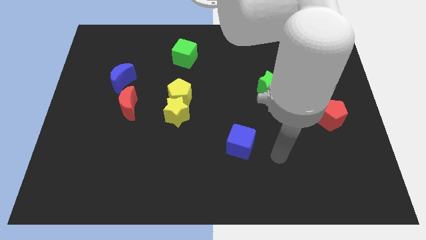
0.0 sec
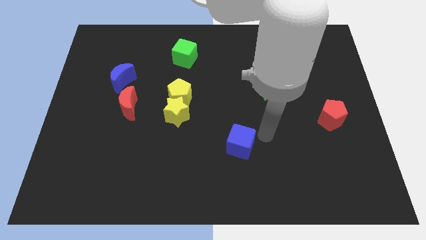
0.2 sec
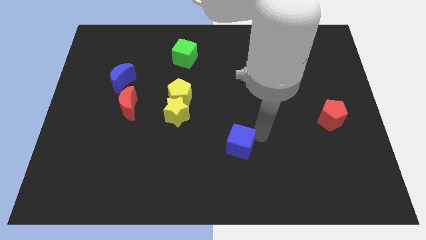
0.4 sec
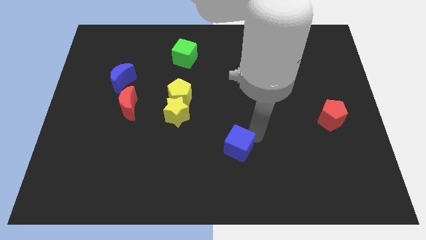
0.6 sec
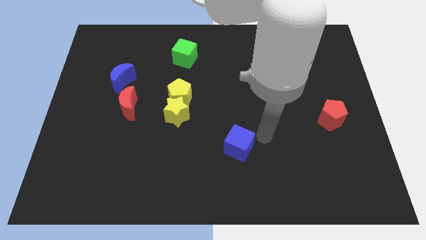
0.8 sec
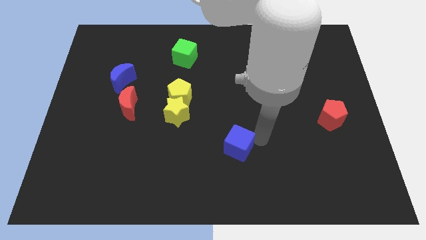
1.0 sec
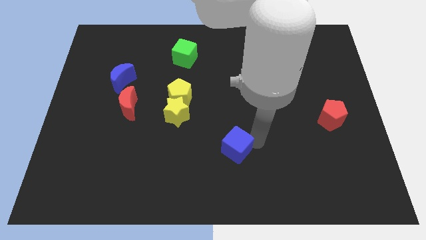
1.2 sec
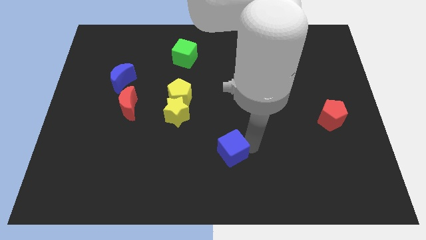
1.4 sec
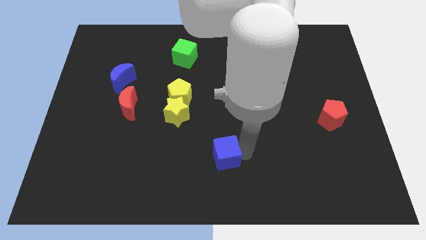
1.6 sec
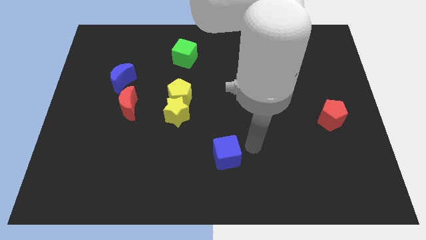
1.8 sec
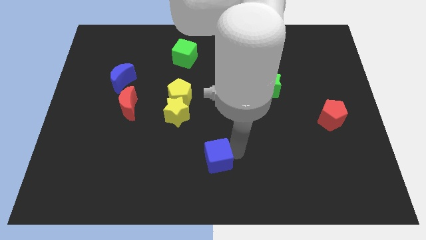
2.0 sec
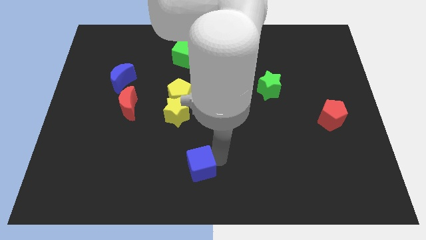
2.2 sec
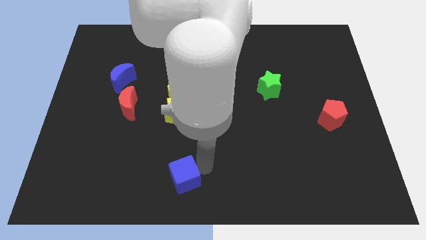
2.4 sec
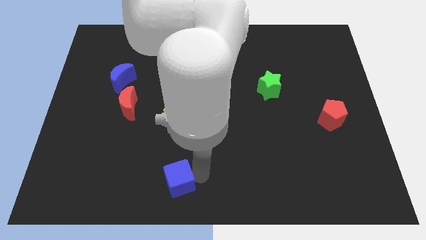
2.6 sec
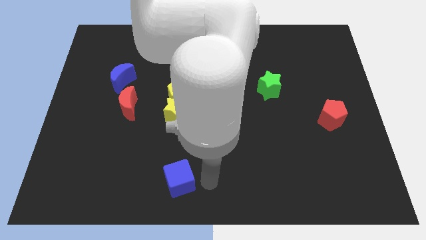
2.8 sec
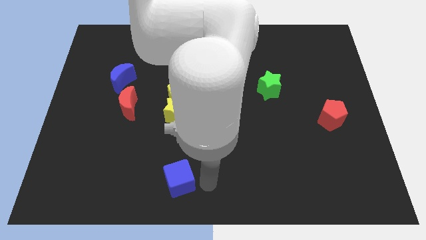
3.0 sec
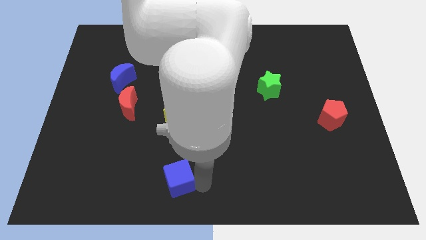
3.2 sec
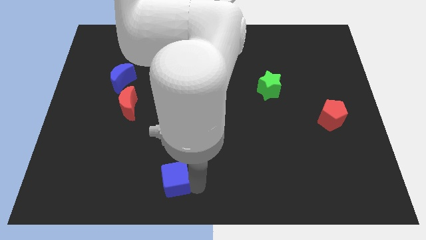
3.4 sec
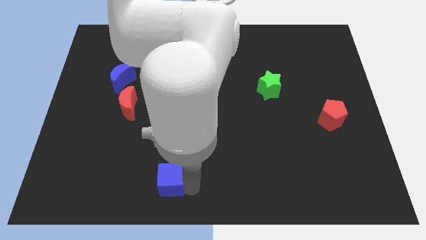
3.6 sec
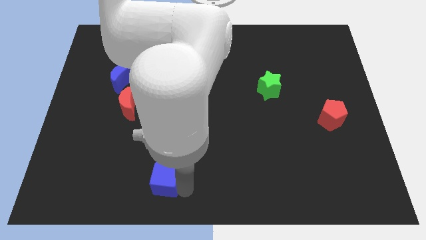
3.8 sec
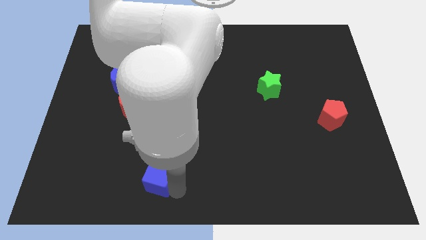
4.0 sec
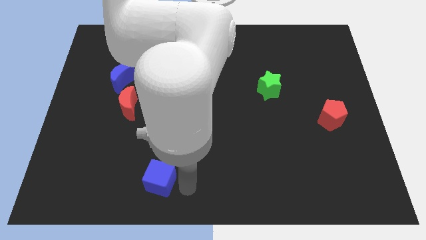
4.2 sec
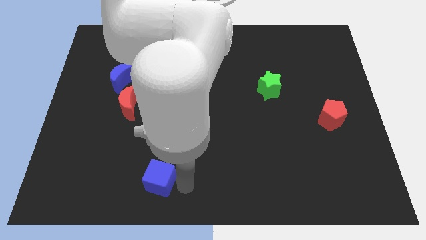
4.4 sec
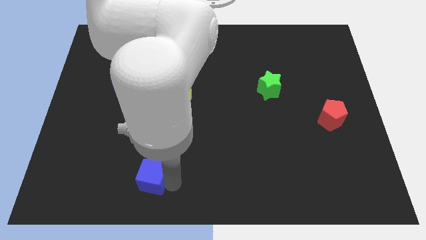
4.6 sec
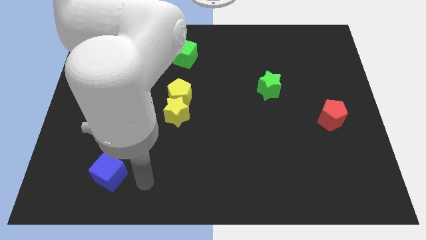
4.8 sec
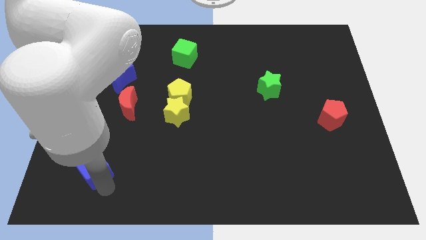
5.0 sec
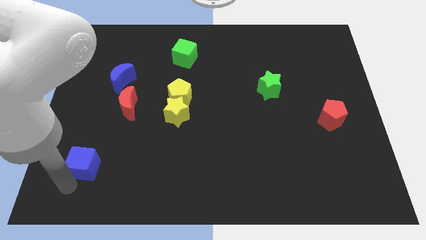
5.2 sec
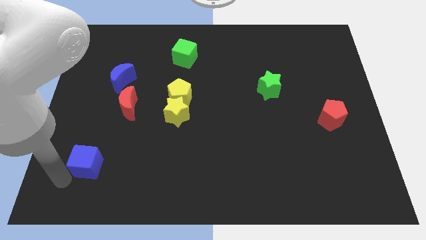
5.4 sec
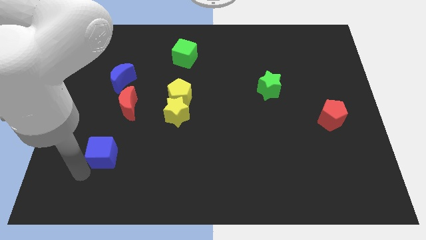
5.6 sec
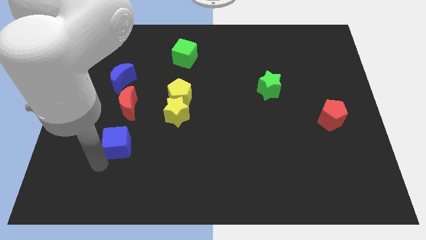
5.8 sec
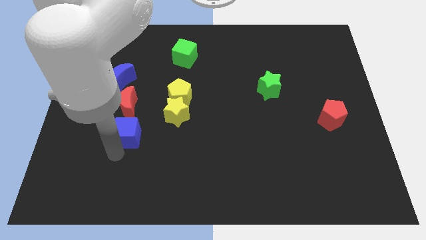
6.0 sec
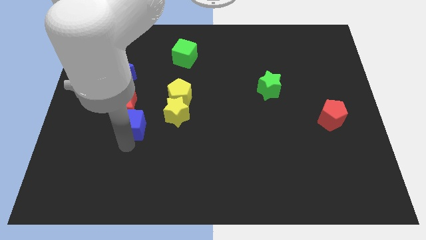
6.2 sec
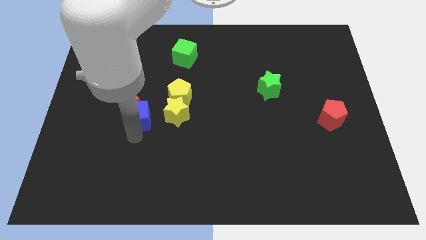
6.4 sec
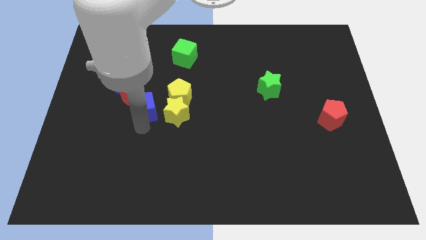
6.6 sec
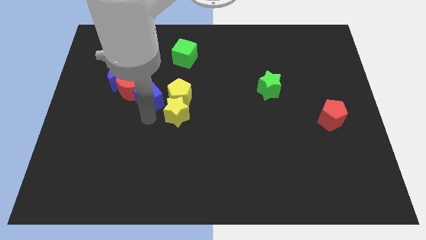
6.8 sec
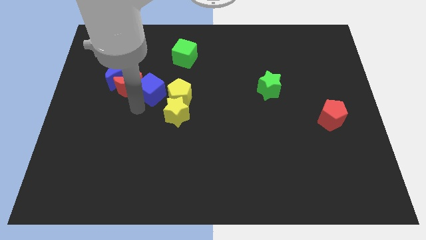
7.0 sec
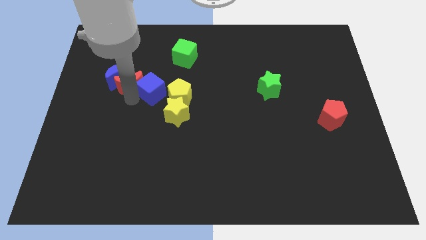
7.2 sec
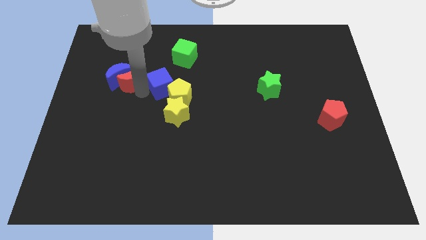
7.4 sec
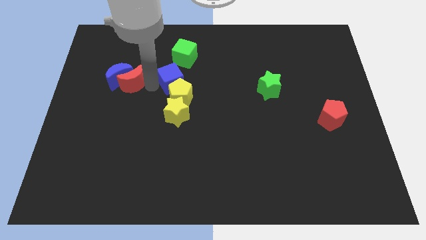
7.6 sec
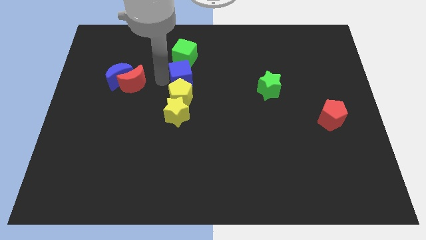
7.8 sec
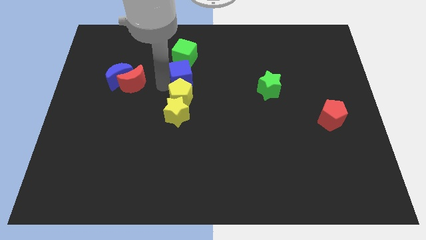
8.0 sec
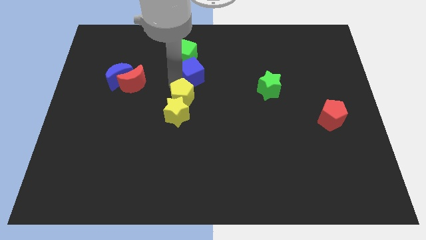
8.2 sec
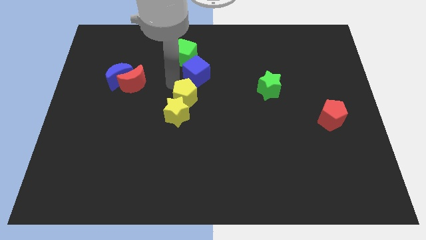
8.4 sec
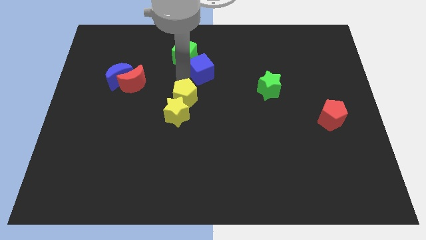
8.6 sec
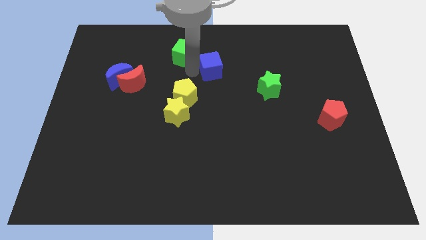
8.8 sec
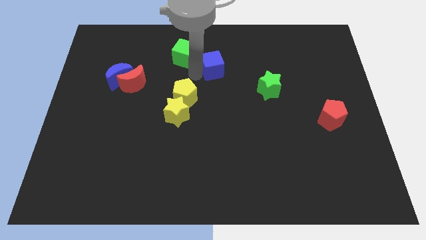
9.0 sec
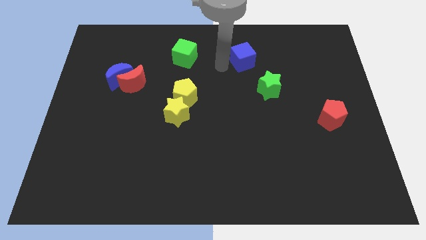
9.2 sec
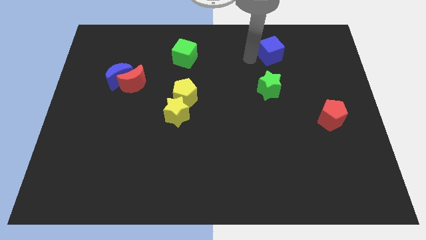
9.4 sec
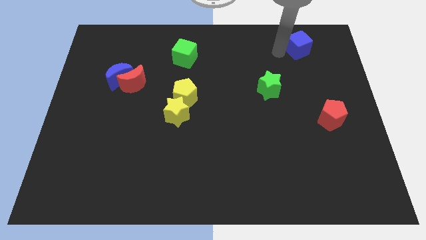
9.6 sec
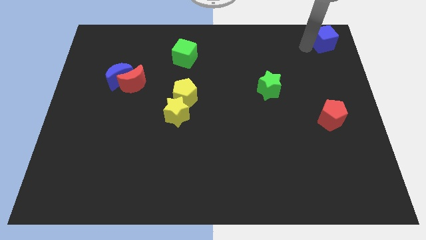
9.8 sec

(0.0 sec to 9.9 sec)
put the blue cube to the upper right corner
